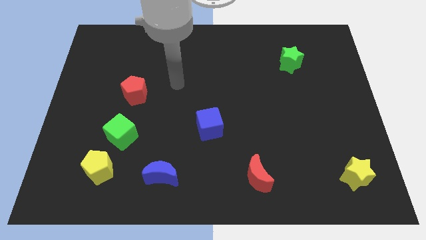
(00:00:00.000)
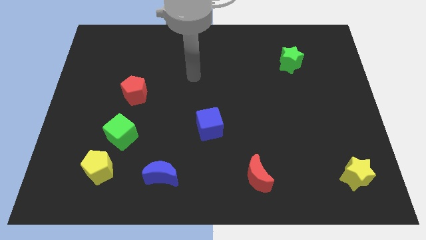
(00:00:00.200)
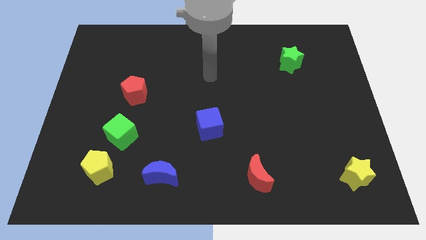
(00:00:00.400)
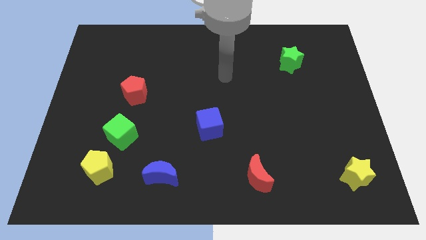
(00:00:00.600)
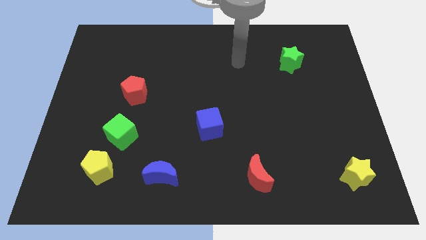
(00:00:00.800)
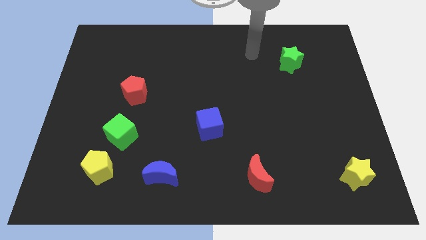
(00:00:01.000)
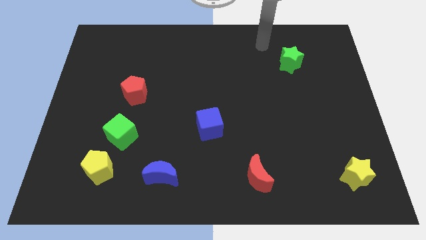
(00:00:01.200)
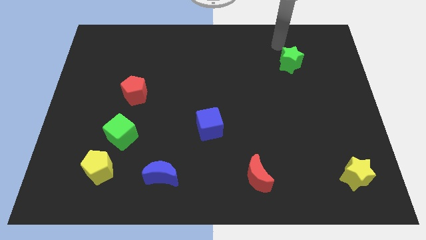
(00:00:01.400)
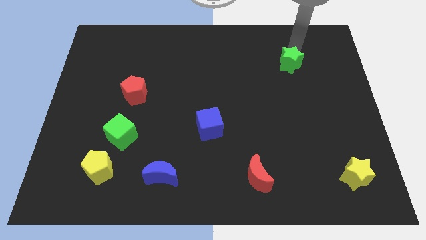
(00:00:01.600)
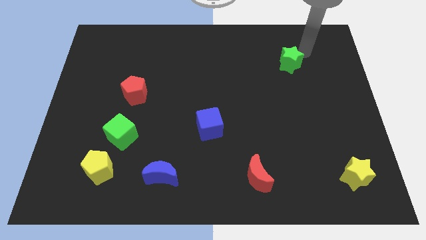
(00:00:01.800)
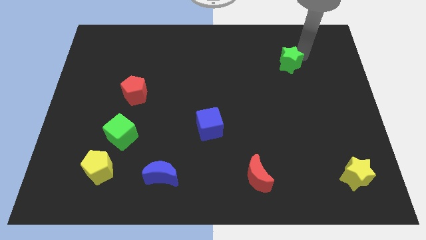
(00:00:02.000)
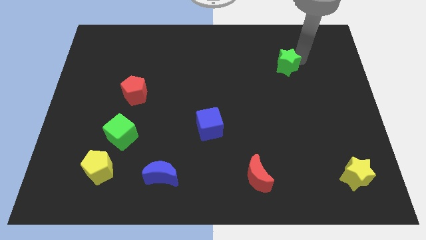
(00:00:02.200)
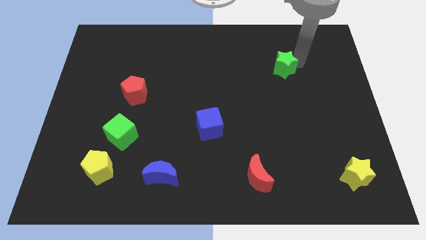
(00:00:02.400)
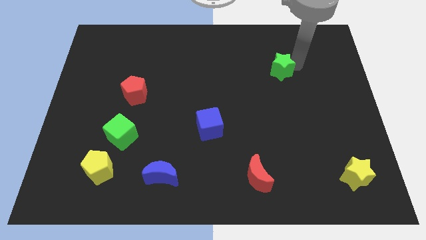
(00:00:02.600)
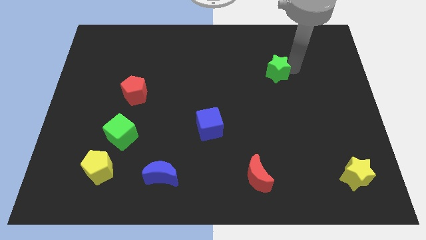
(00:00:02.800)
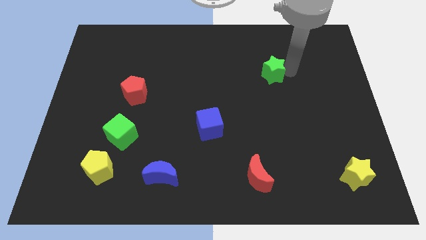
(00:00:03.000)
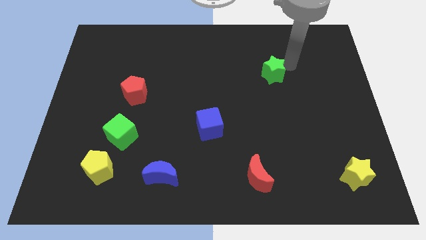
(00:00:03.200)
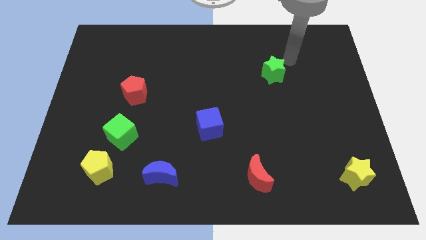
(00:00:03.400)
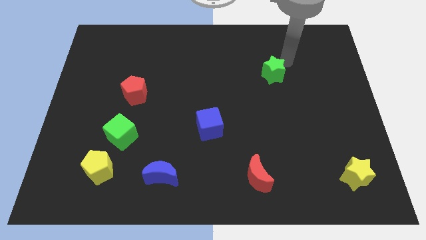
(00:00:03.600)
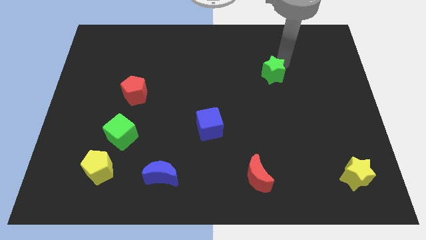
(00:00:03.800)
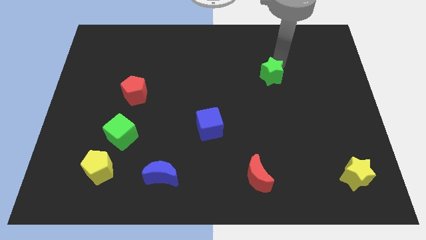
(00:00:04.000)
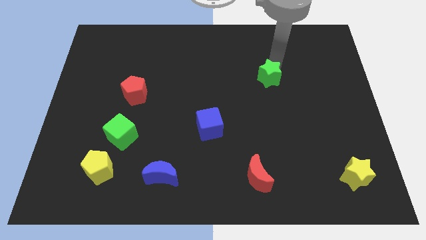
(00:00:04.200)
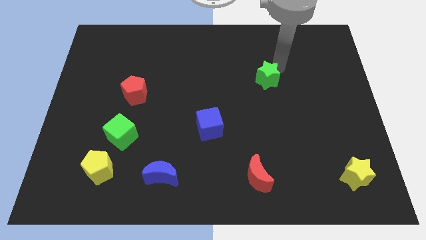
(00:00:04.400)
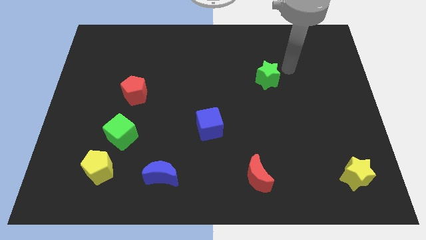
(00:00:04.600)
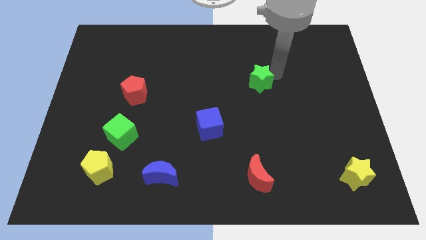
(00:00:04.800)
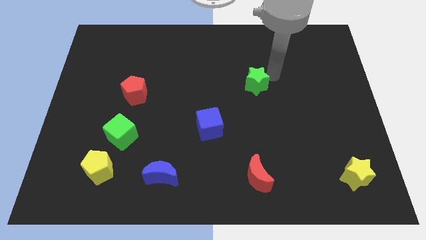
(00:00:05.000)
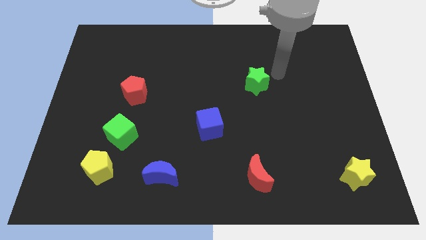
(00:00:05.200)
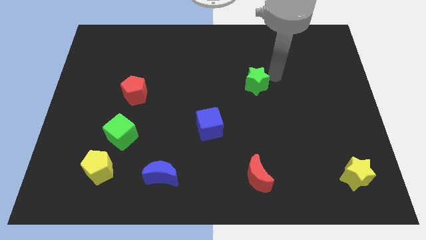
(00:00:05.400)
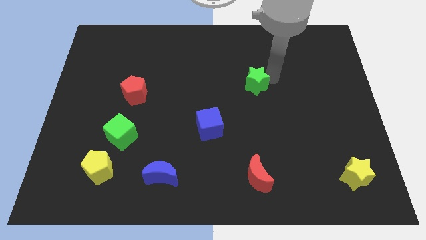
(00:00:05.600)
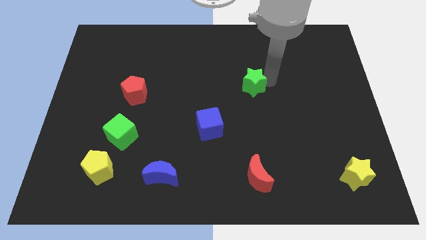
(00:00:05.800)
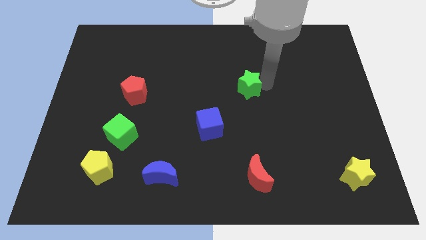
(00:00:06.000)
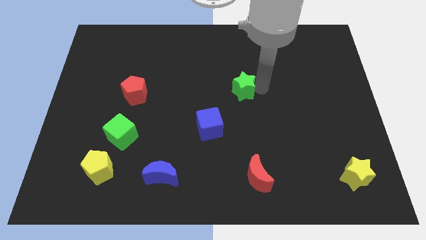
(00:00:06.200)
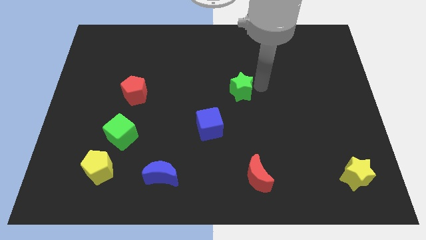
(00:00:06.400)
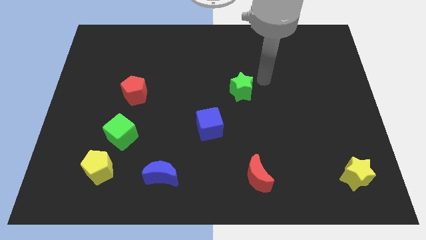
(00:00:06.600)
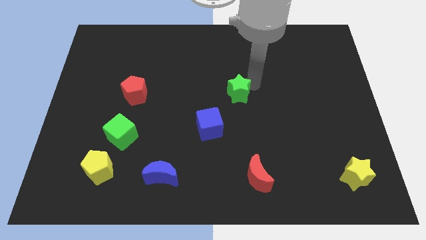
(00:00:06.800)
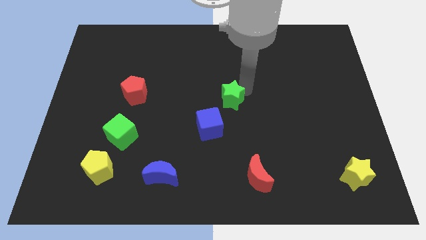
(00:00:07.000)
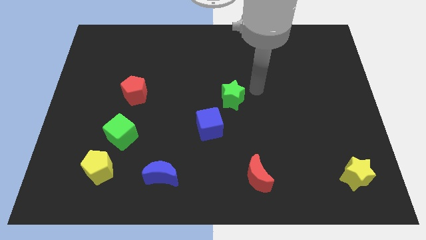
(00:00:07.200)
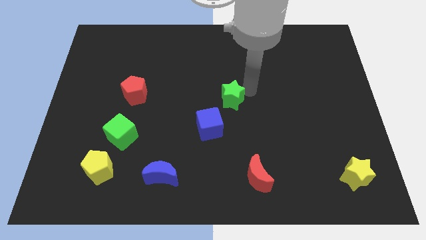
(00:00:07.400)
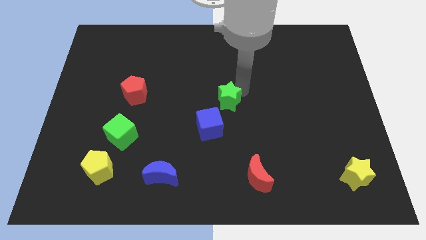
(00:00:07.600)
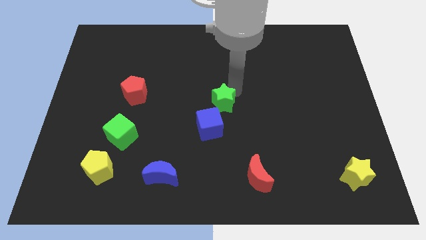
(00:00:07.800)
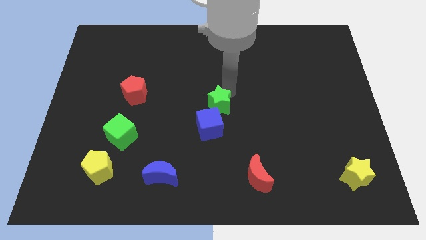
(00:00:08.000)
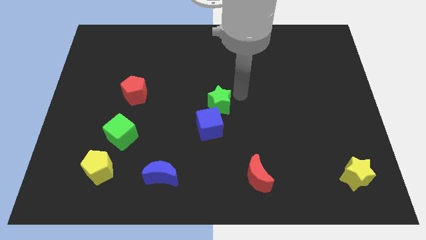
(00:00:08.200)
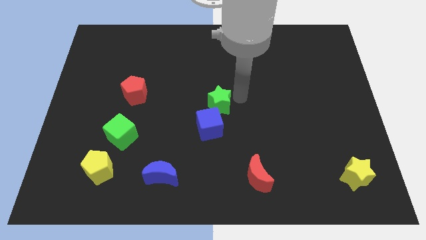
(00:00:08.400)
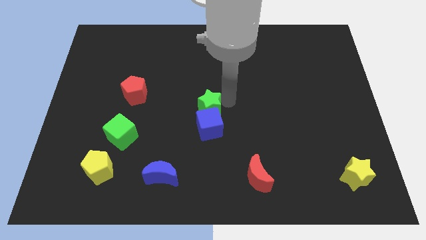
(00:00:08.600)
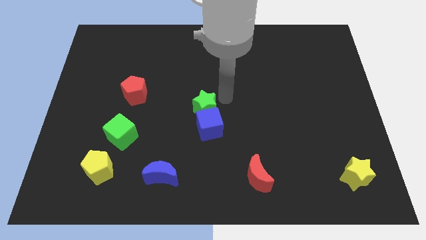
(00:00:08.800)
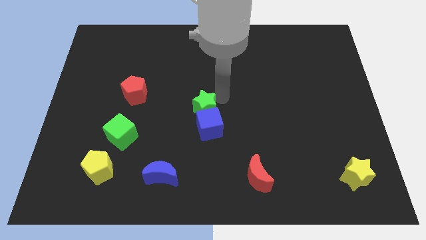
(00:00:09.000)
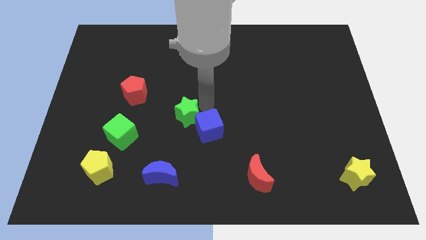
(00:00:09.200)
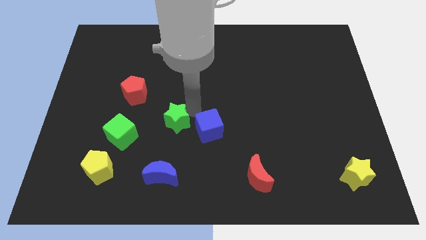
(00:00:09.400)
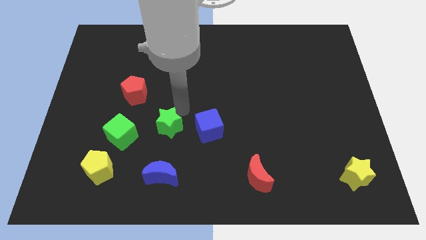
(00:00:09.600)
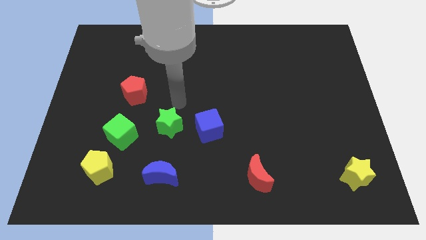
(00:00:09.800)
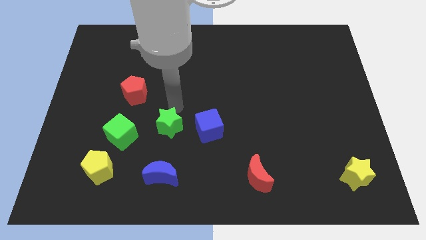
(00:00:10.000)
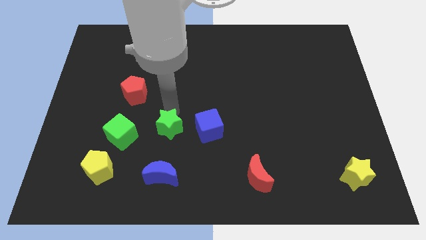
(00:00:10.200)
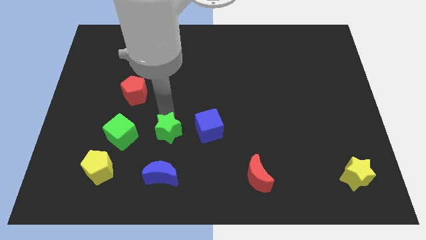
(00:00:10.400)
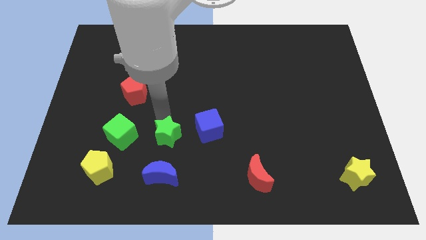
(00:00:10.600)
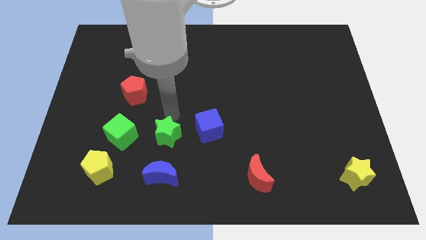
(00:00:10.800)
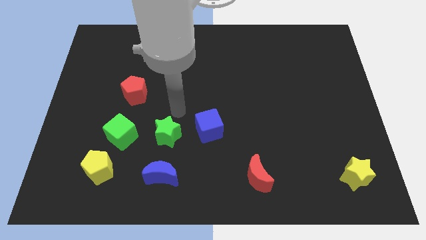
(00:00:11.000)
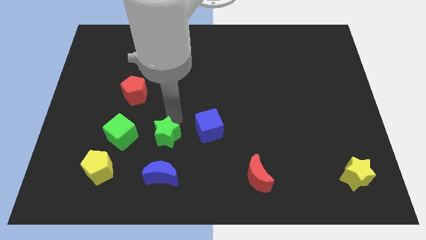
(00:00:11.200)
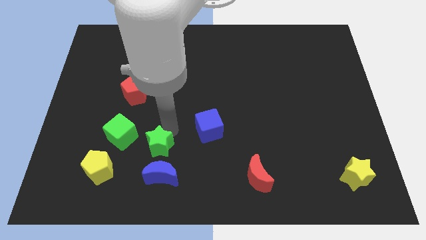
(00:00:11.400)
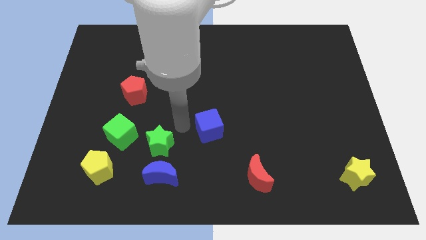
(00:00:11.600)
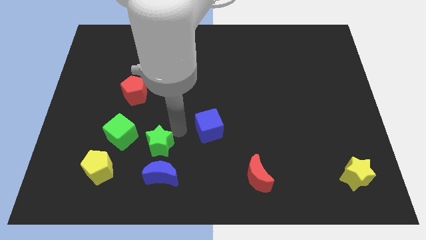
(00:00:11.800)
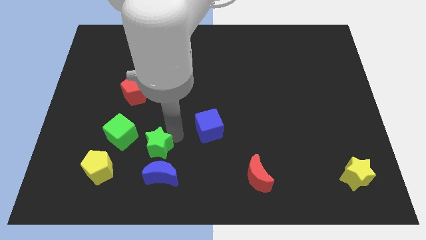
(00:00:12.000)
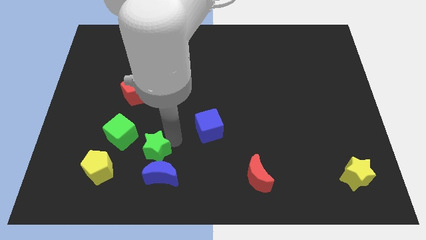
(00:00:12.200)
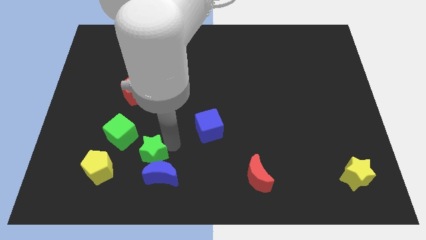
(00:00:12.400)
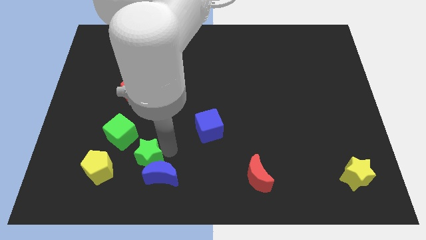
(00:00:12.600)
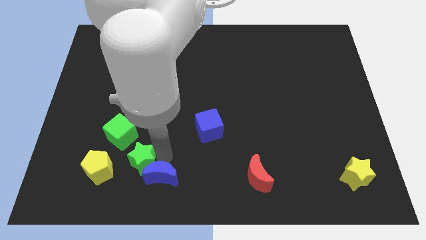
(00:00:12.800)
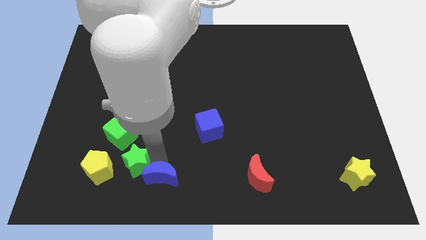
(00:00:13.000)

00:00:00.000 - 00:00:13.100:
put the green star below the green cube
